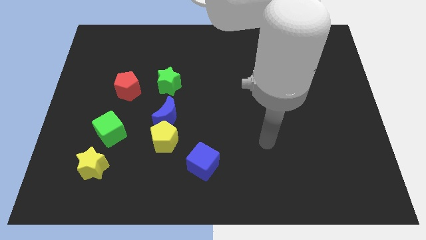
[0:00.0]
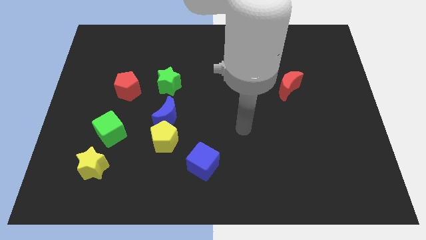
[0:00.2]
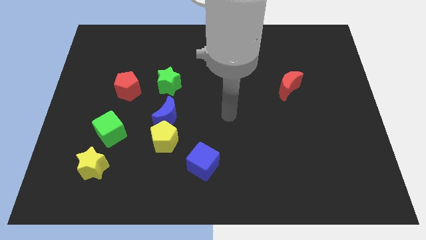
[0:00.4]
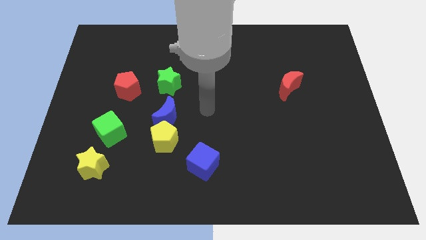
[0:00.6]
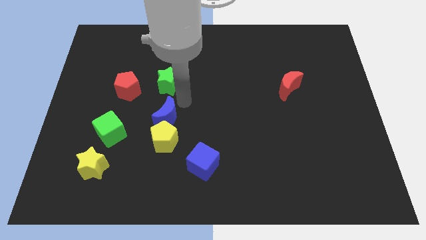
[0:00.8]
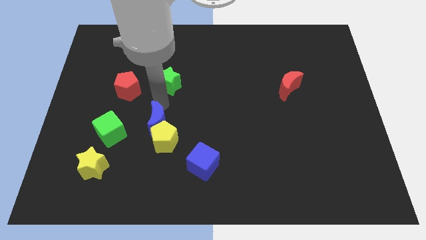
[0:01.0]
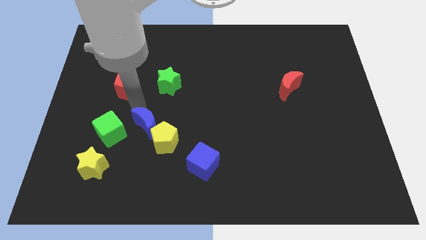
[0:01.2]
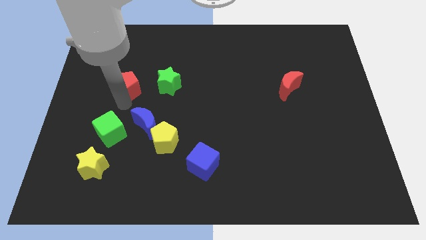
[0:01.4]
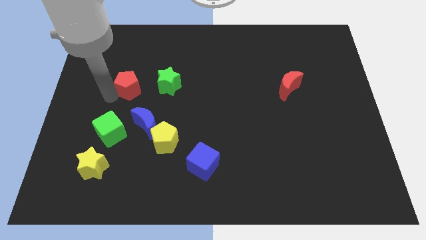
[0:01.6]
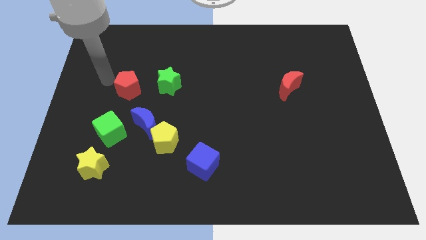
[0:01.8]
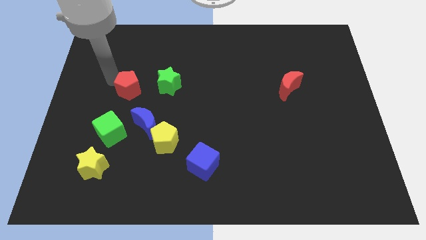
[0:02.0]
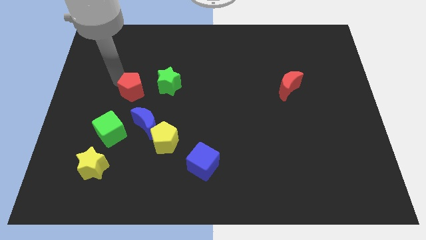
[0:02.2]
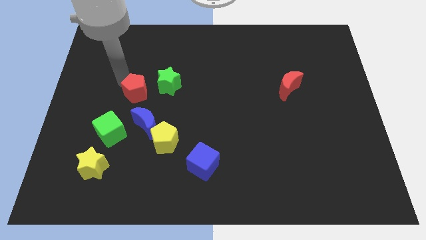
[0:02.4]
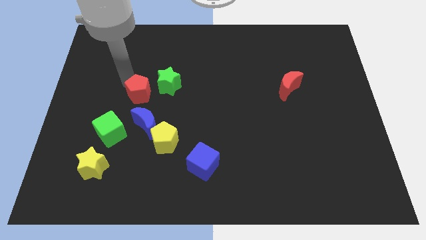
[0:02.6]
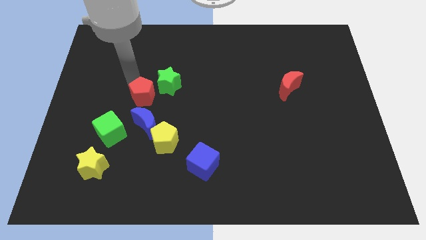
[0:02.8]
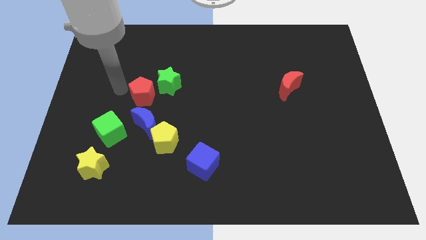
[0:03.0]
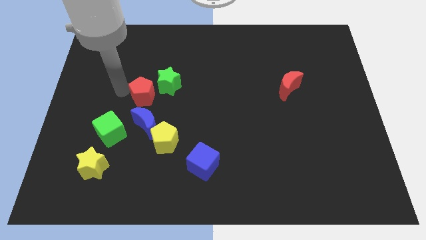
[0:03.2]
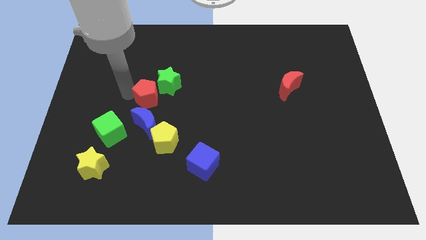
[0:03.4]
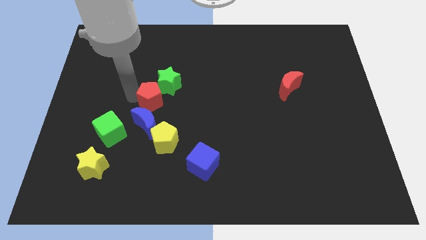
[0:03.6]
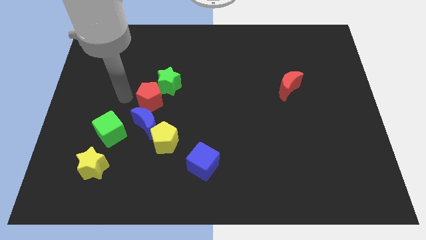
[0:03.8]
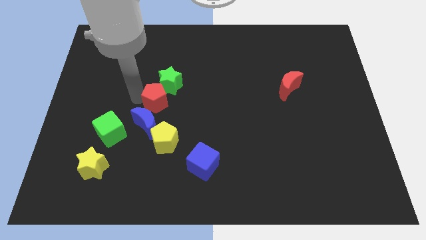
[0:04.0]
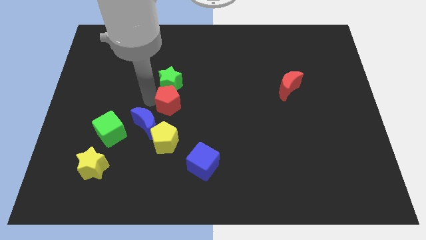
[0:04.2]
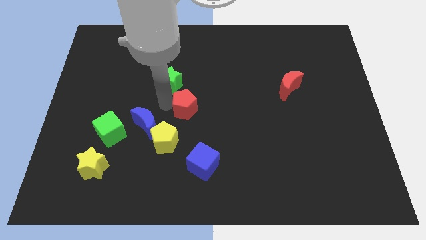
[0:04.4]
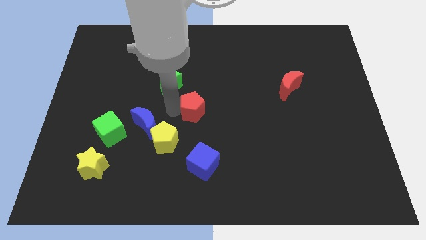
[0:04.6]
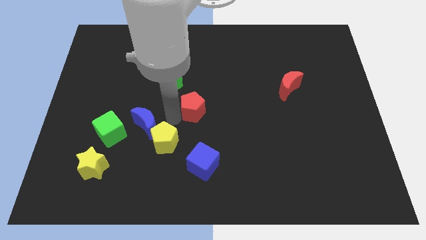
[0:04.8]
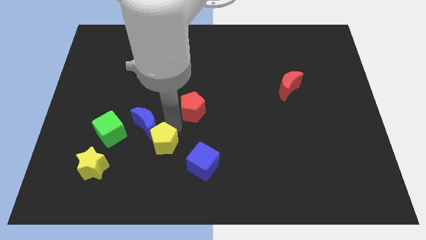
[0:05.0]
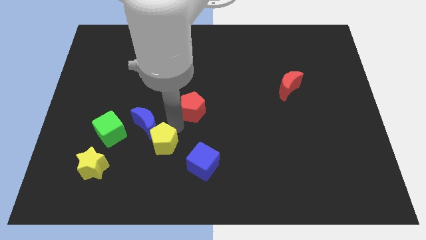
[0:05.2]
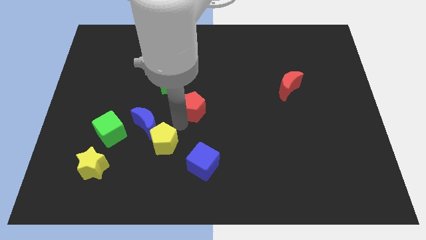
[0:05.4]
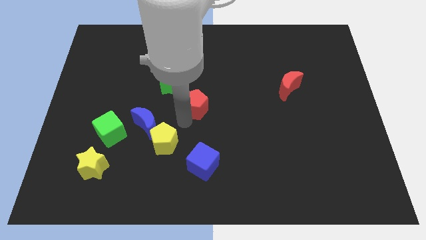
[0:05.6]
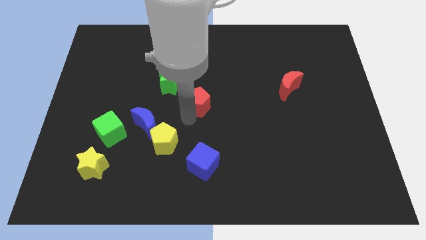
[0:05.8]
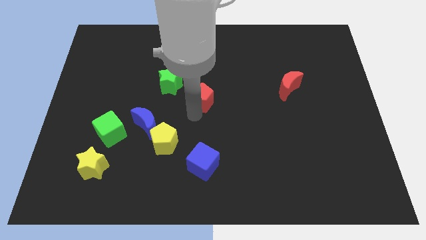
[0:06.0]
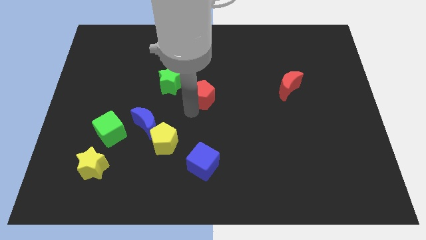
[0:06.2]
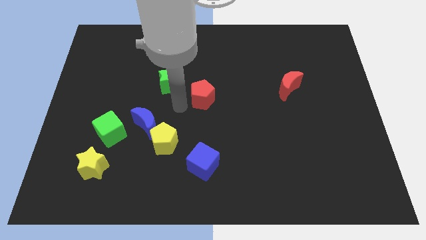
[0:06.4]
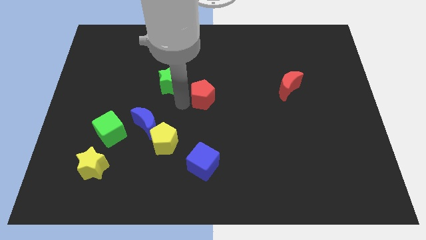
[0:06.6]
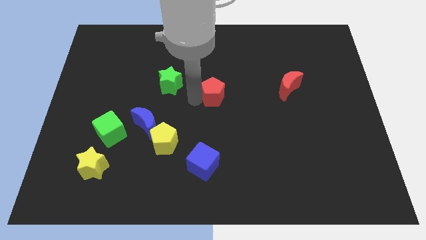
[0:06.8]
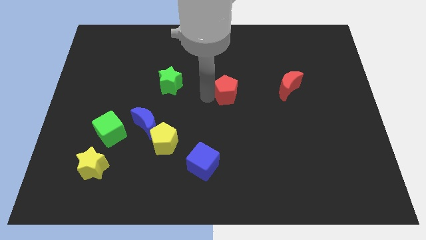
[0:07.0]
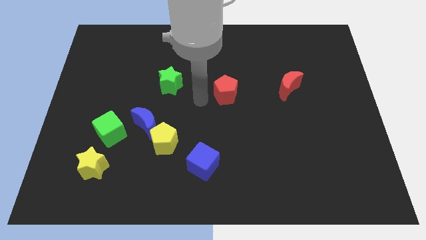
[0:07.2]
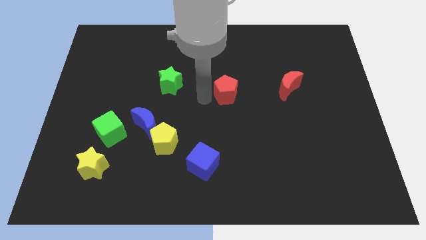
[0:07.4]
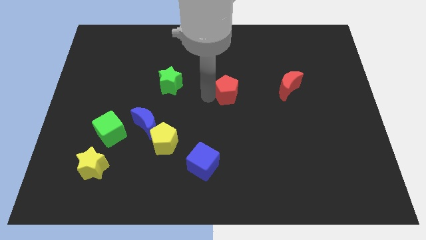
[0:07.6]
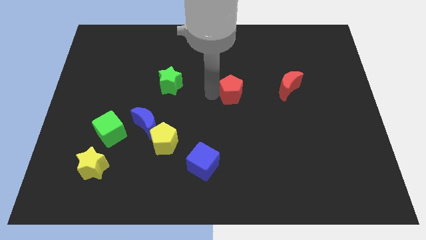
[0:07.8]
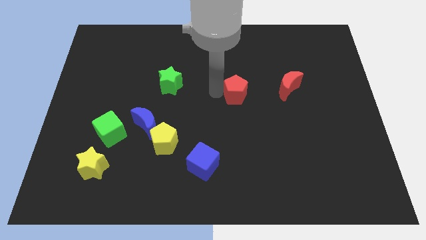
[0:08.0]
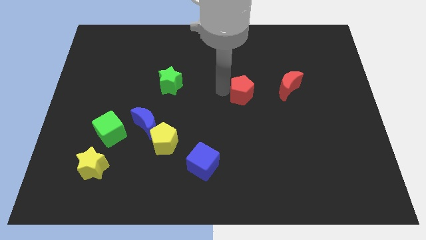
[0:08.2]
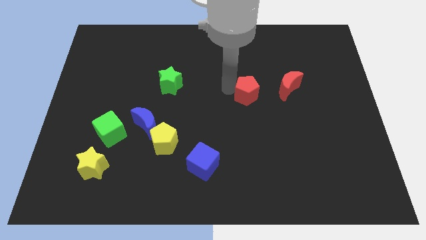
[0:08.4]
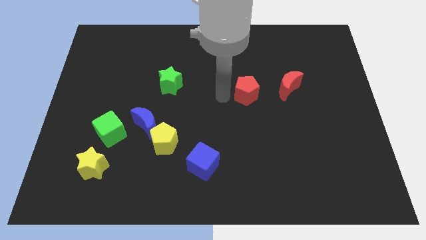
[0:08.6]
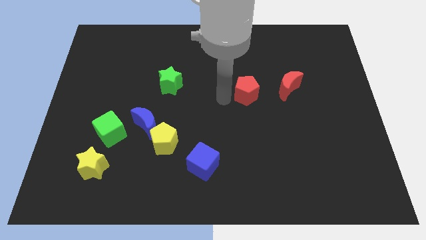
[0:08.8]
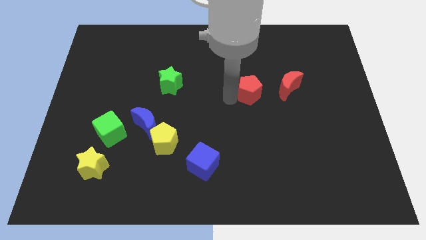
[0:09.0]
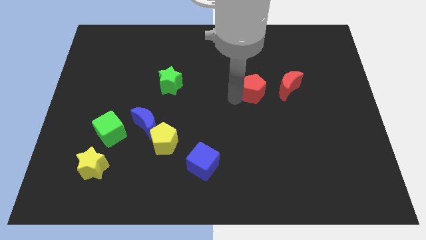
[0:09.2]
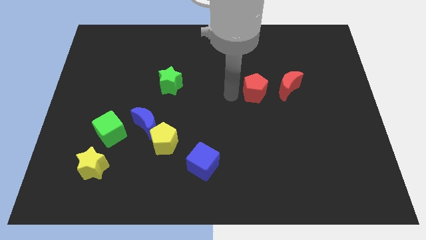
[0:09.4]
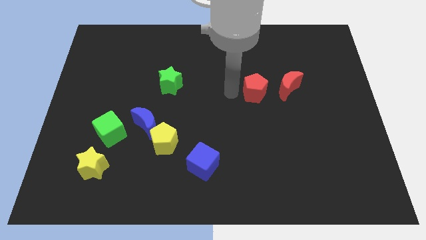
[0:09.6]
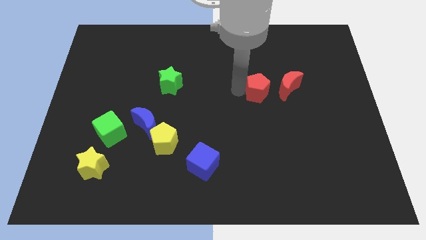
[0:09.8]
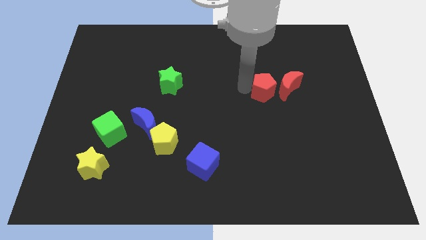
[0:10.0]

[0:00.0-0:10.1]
slide the red pentagon to the red moon

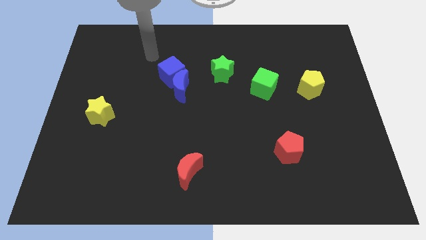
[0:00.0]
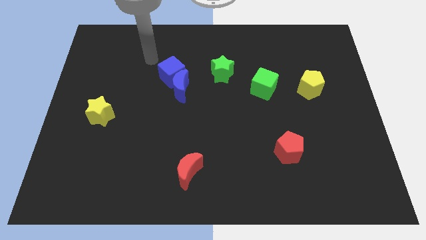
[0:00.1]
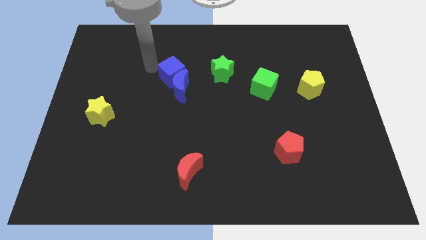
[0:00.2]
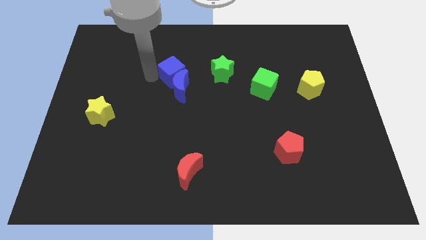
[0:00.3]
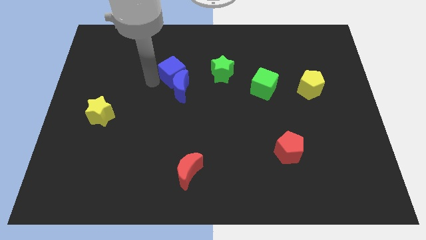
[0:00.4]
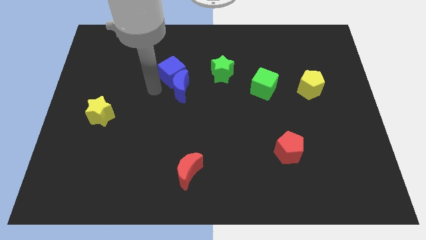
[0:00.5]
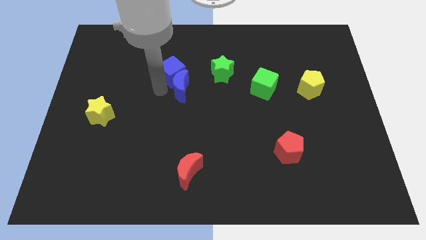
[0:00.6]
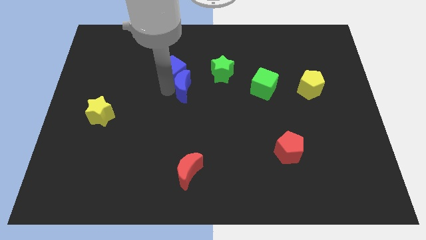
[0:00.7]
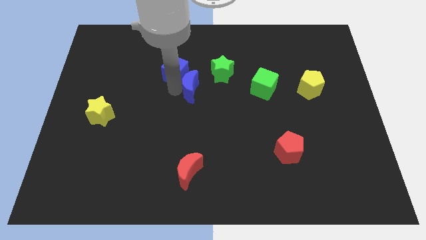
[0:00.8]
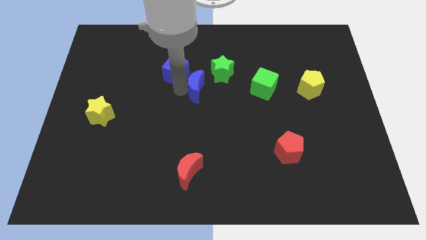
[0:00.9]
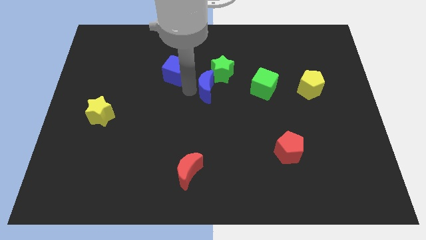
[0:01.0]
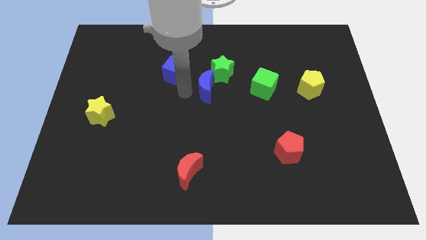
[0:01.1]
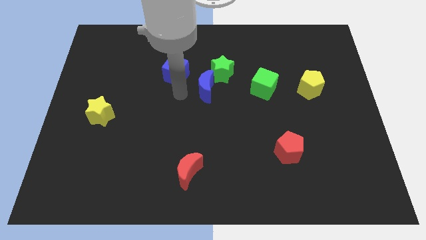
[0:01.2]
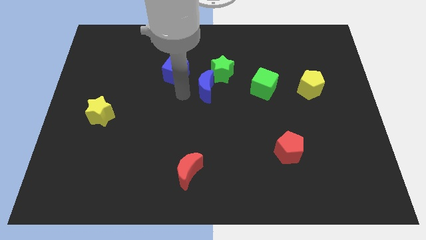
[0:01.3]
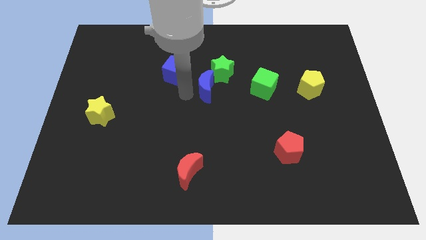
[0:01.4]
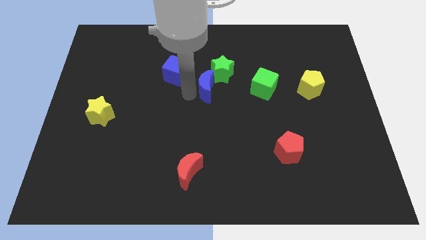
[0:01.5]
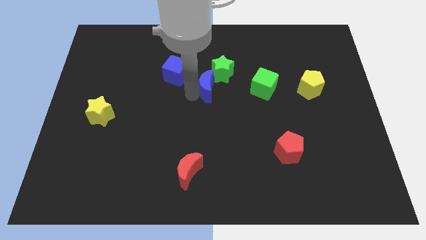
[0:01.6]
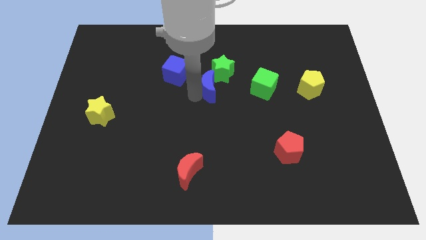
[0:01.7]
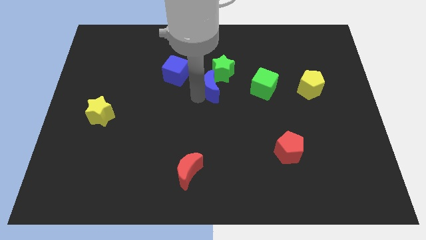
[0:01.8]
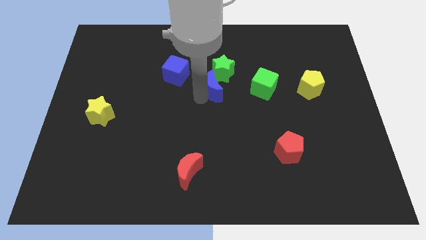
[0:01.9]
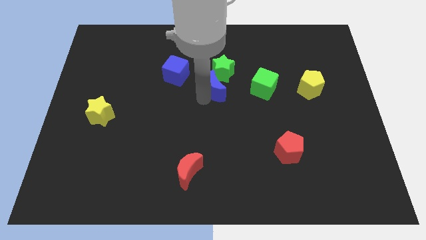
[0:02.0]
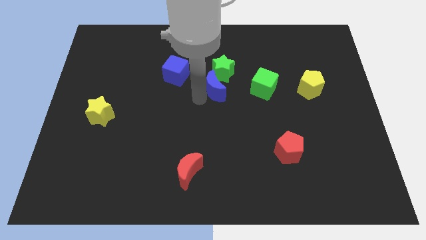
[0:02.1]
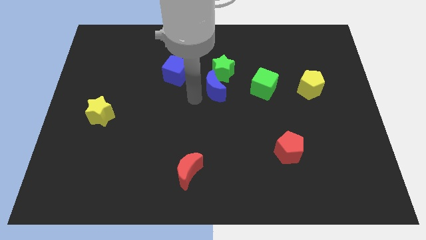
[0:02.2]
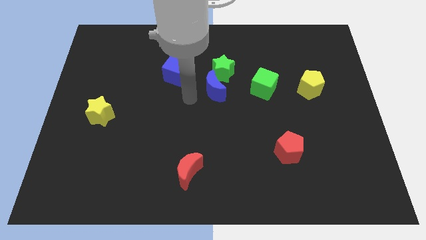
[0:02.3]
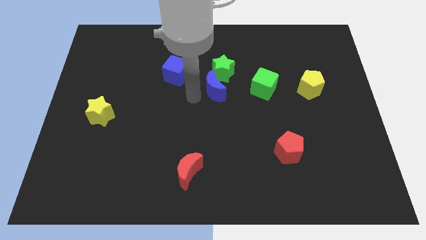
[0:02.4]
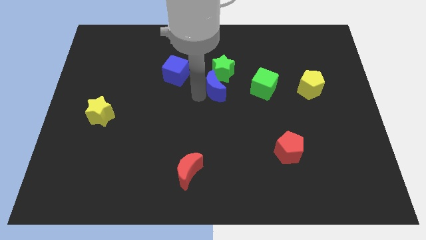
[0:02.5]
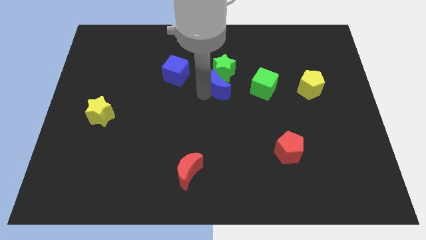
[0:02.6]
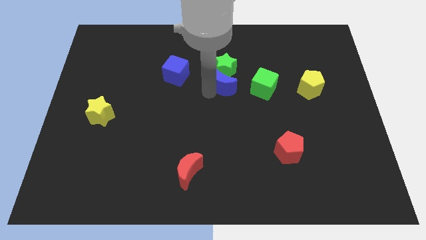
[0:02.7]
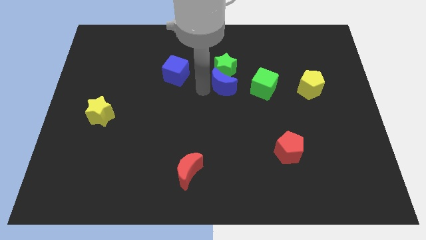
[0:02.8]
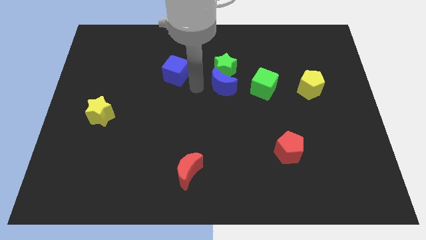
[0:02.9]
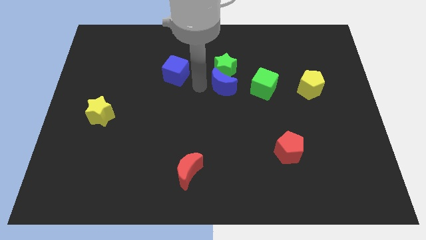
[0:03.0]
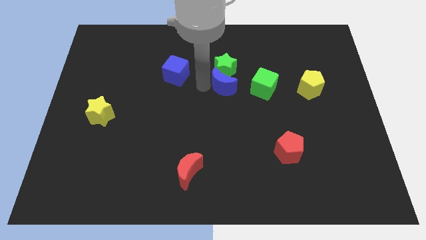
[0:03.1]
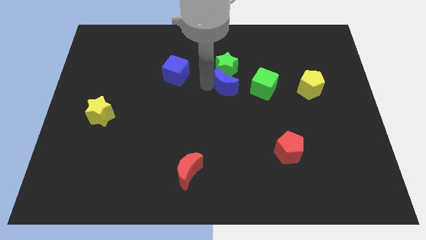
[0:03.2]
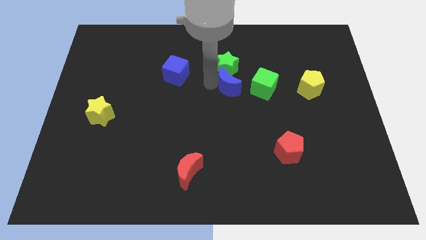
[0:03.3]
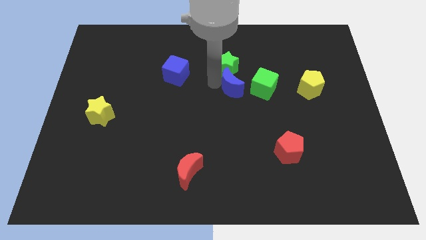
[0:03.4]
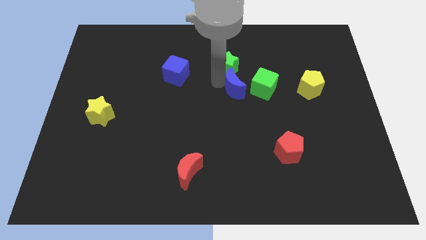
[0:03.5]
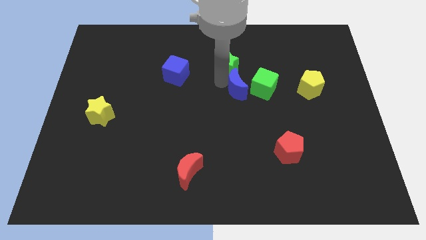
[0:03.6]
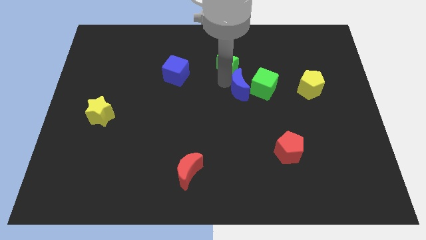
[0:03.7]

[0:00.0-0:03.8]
move the blue moon to the green cube
